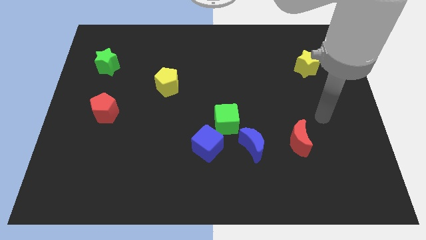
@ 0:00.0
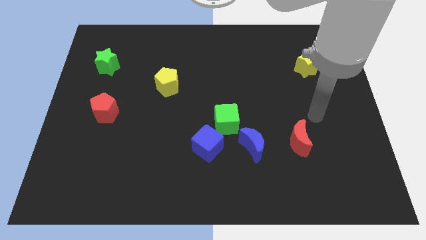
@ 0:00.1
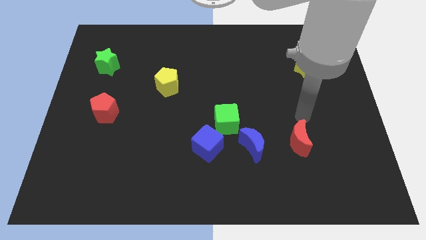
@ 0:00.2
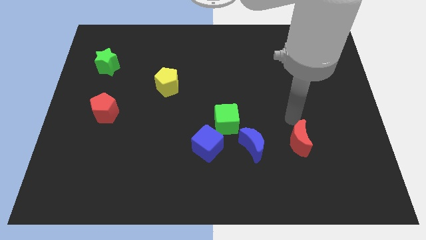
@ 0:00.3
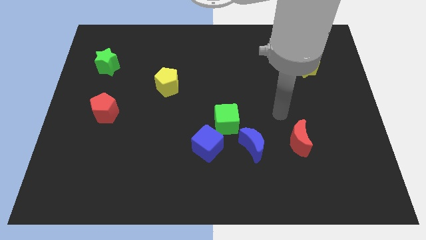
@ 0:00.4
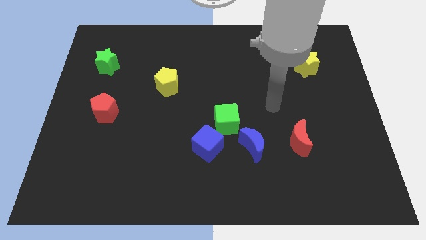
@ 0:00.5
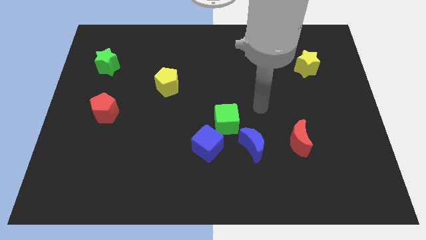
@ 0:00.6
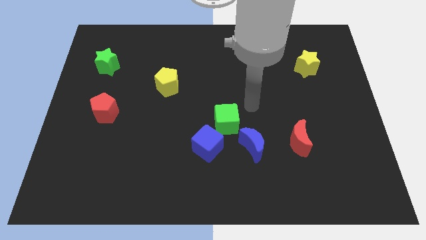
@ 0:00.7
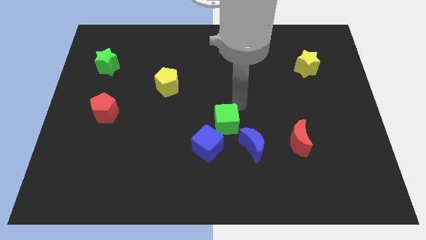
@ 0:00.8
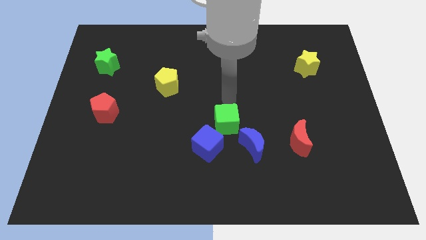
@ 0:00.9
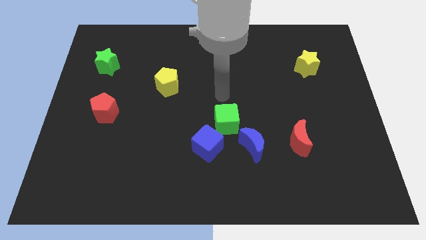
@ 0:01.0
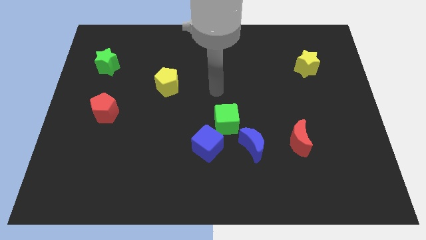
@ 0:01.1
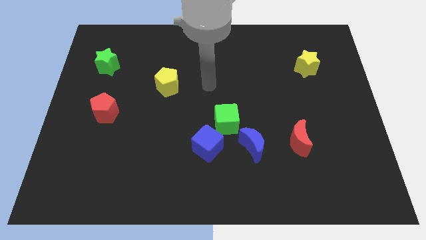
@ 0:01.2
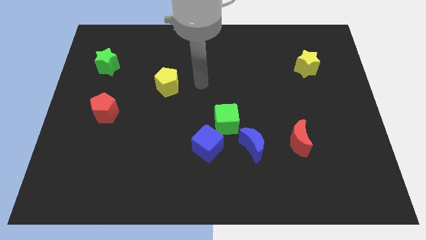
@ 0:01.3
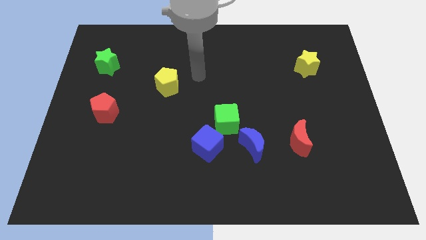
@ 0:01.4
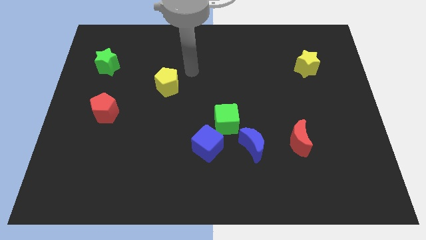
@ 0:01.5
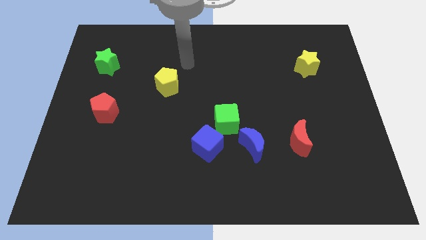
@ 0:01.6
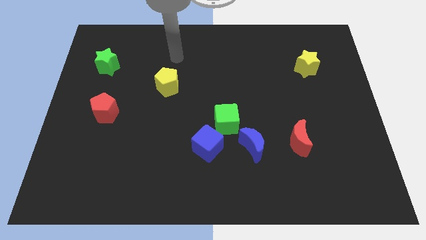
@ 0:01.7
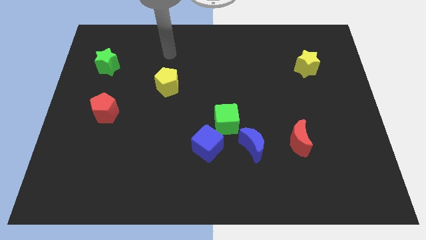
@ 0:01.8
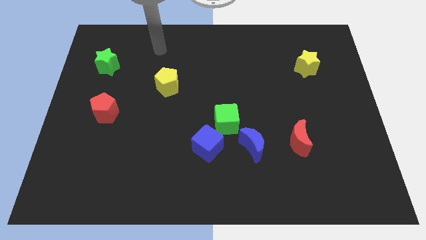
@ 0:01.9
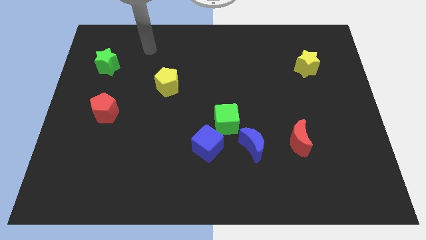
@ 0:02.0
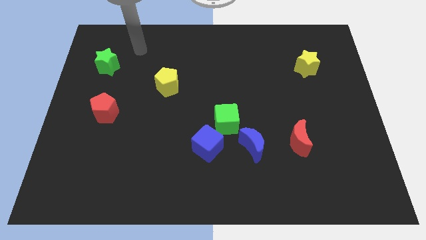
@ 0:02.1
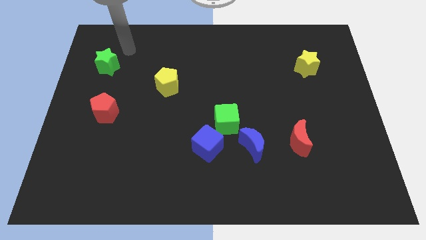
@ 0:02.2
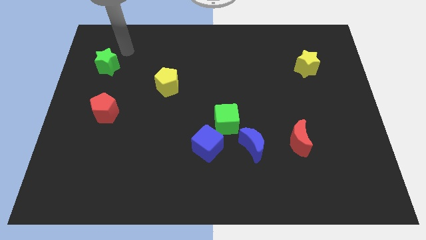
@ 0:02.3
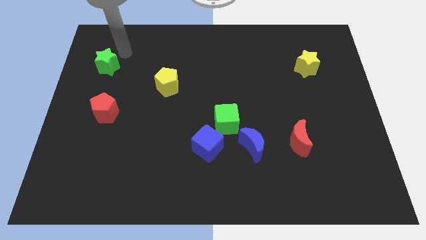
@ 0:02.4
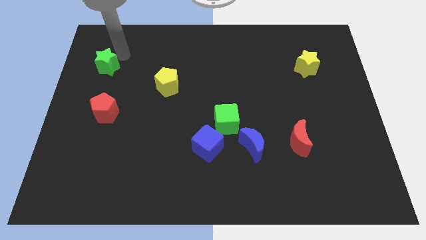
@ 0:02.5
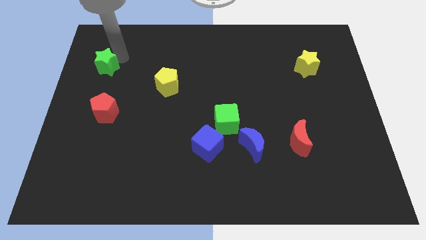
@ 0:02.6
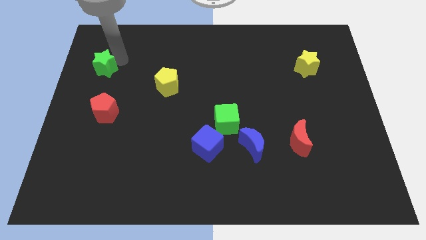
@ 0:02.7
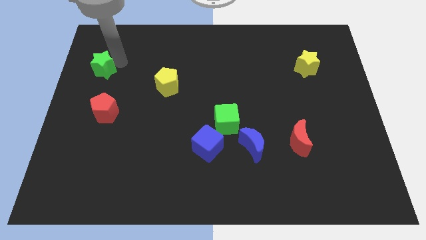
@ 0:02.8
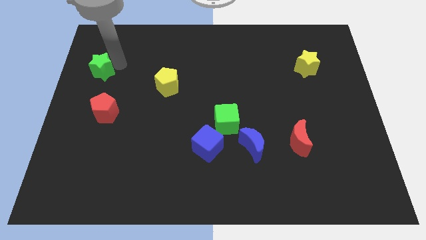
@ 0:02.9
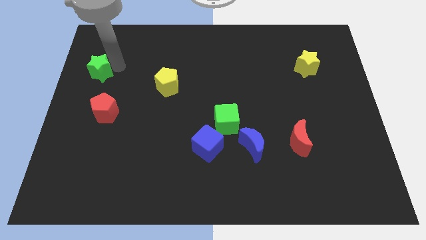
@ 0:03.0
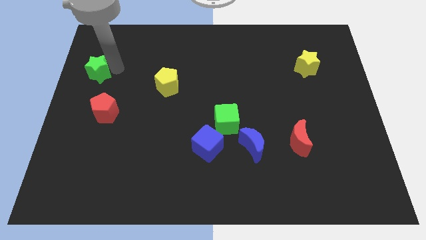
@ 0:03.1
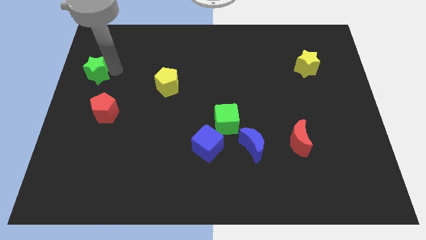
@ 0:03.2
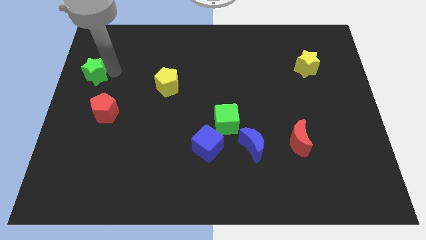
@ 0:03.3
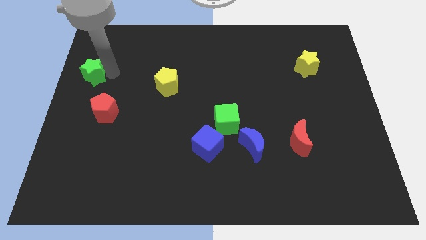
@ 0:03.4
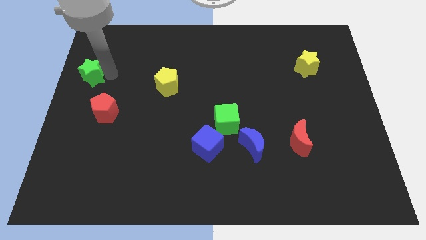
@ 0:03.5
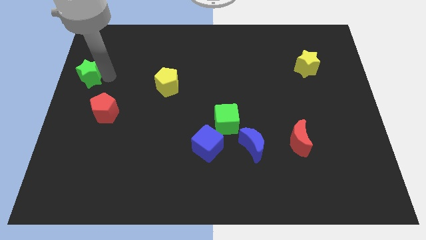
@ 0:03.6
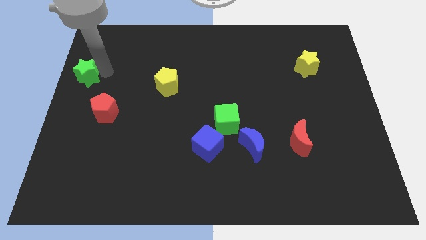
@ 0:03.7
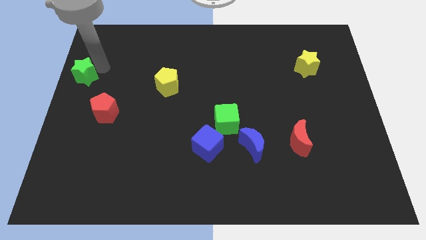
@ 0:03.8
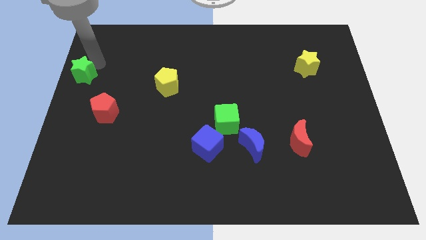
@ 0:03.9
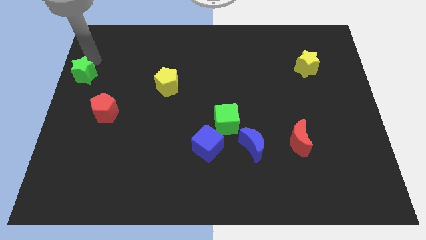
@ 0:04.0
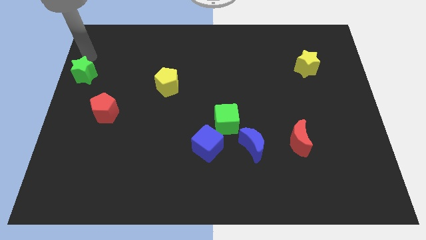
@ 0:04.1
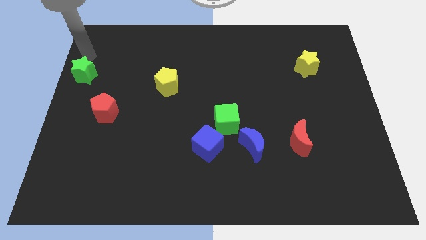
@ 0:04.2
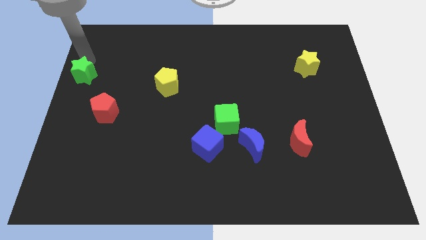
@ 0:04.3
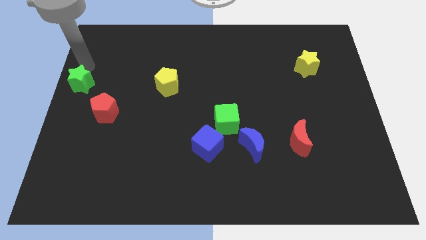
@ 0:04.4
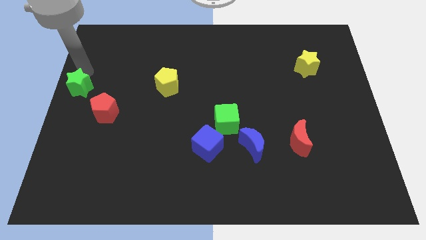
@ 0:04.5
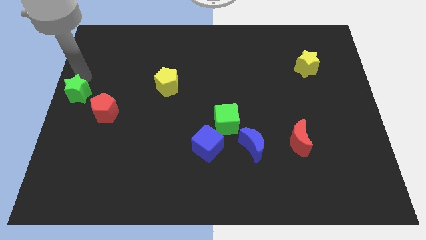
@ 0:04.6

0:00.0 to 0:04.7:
move the green star slightly downwards

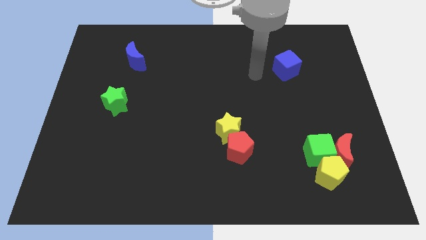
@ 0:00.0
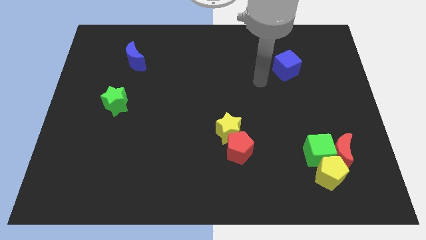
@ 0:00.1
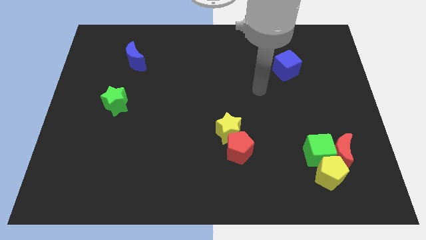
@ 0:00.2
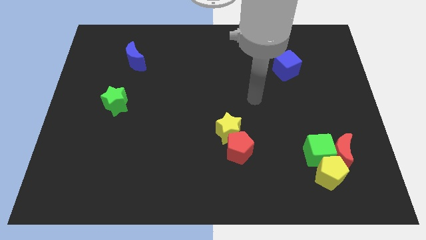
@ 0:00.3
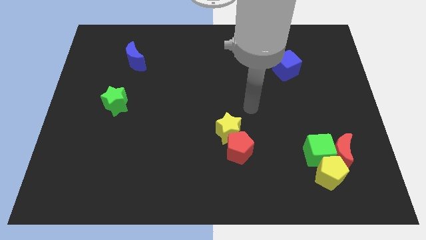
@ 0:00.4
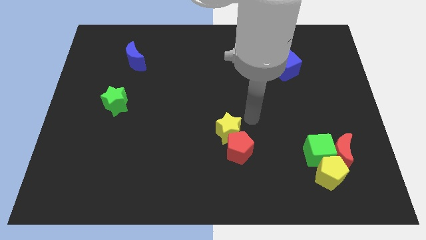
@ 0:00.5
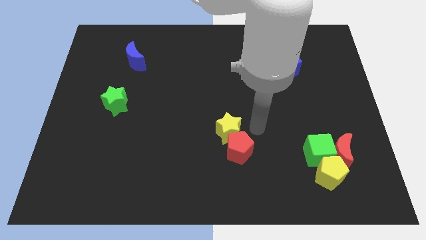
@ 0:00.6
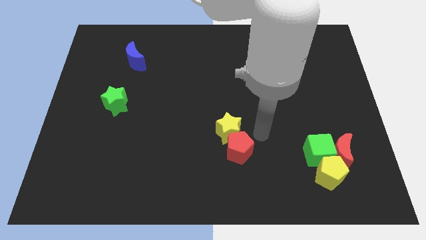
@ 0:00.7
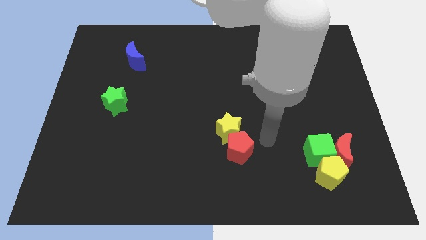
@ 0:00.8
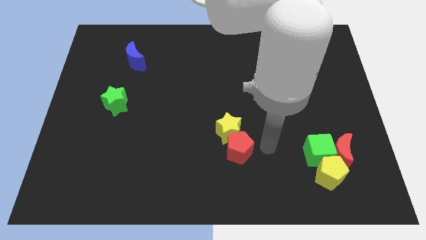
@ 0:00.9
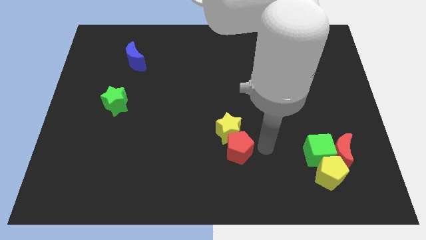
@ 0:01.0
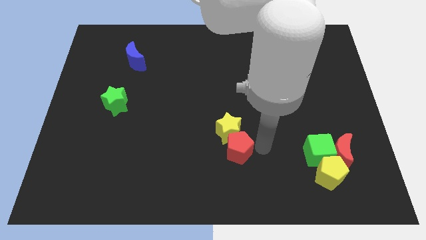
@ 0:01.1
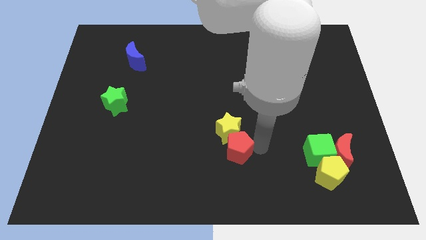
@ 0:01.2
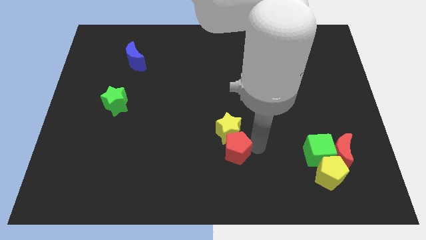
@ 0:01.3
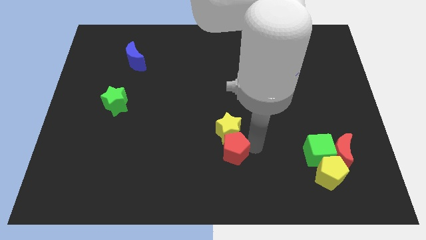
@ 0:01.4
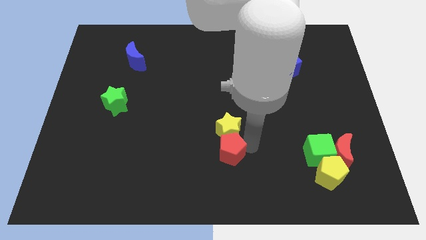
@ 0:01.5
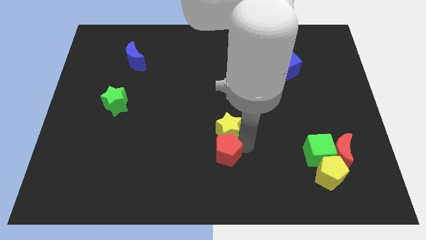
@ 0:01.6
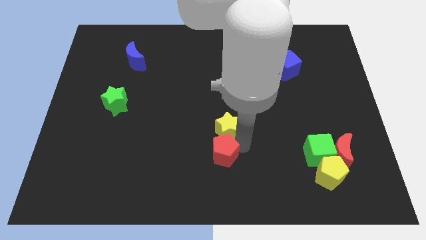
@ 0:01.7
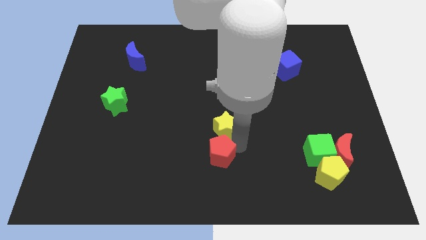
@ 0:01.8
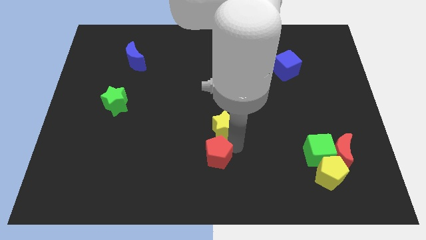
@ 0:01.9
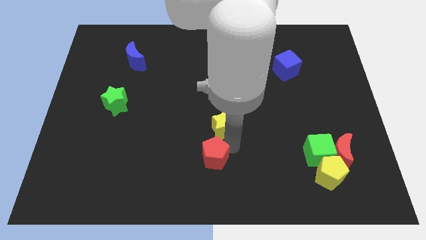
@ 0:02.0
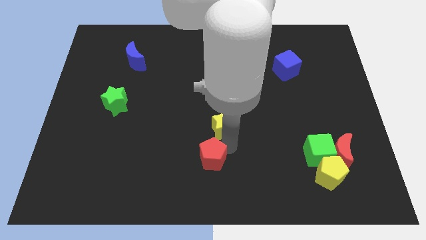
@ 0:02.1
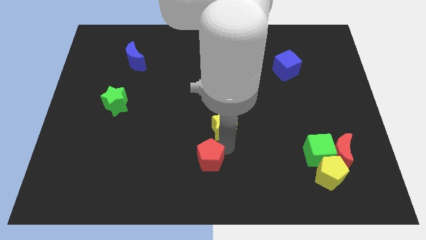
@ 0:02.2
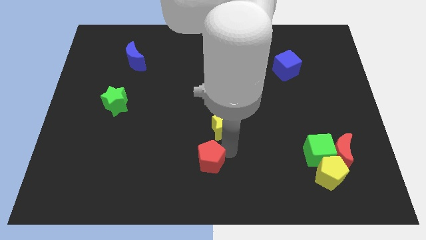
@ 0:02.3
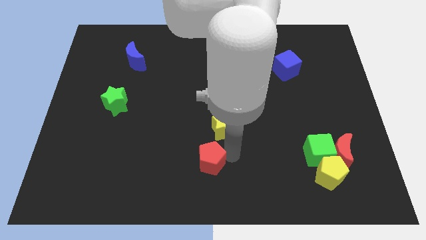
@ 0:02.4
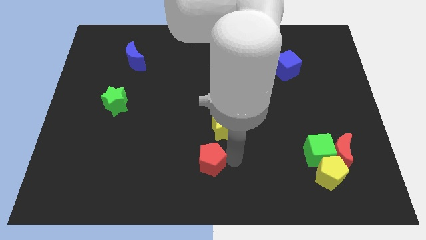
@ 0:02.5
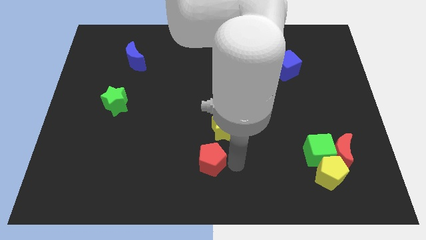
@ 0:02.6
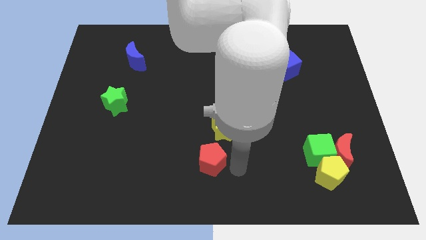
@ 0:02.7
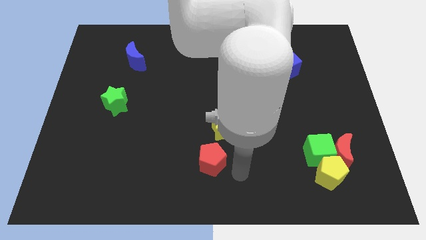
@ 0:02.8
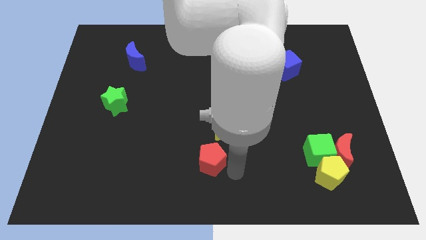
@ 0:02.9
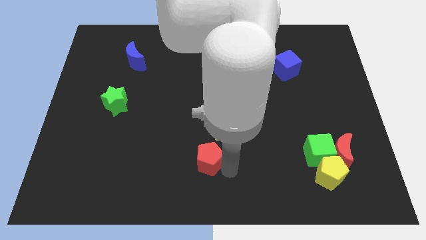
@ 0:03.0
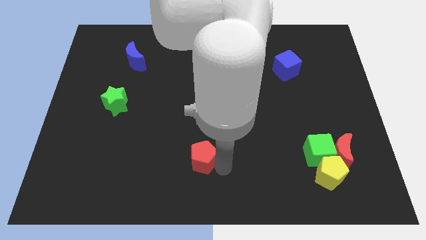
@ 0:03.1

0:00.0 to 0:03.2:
slightly push the red pentagon left
